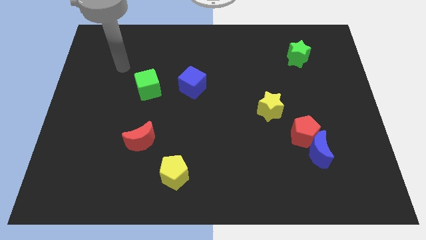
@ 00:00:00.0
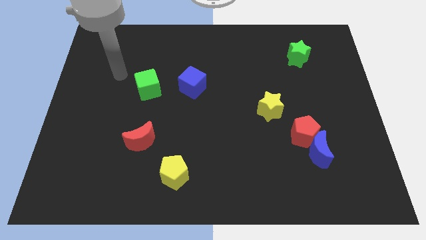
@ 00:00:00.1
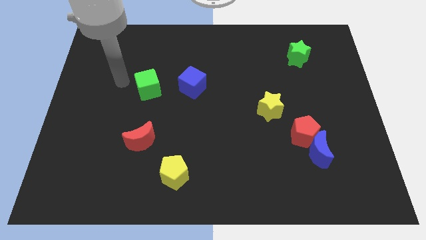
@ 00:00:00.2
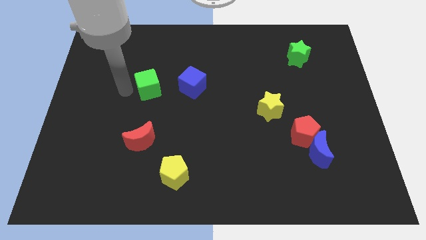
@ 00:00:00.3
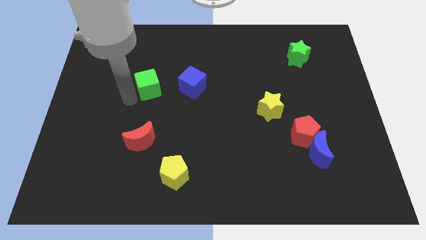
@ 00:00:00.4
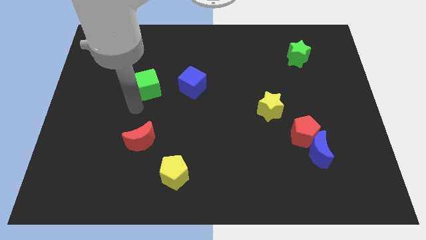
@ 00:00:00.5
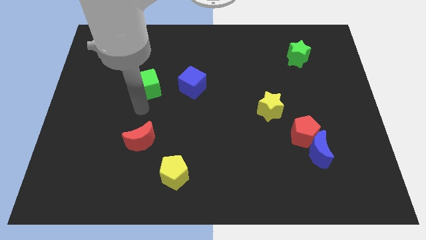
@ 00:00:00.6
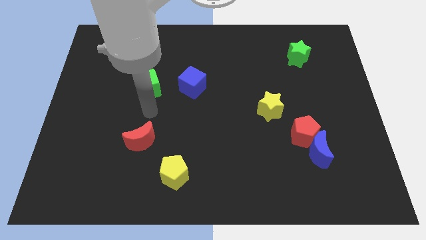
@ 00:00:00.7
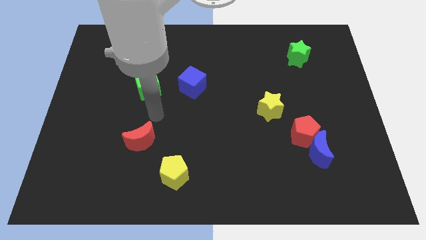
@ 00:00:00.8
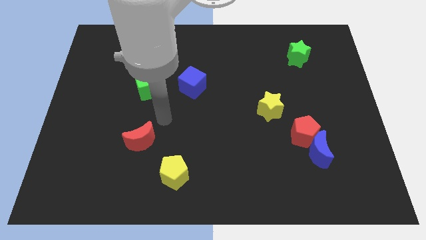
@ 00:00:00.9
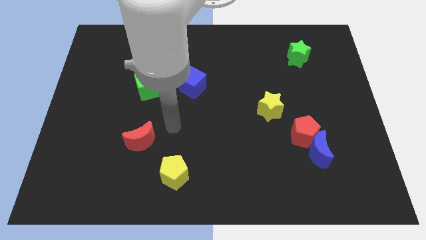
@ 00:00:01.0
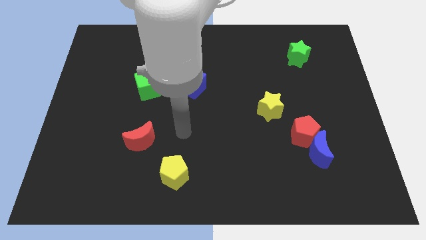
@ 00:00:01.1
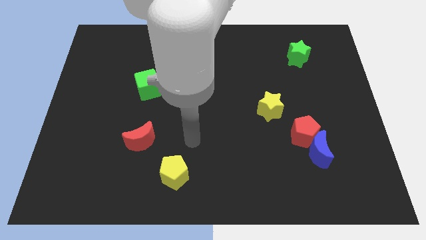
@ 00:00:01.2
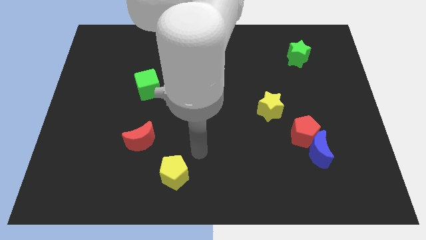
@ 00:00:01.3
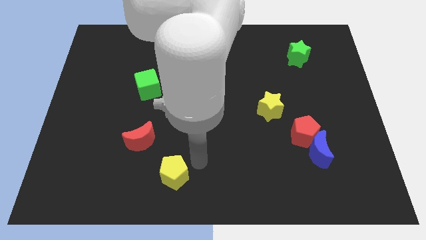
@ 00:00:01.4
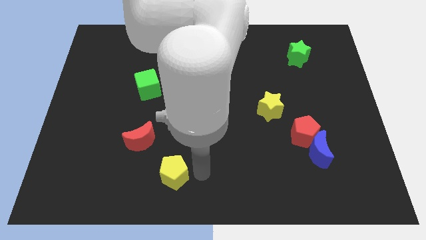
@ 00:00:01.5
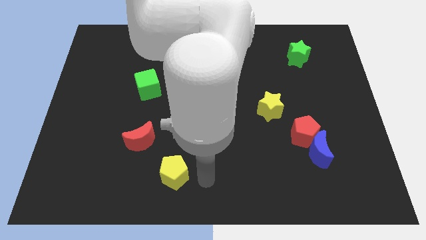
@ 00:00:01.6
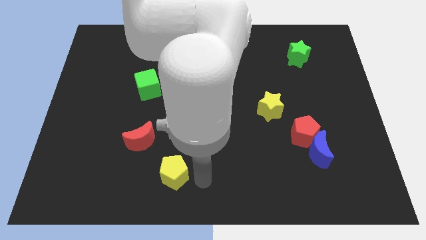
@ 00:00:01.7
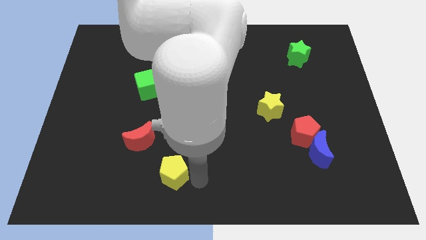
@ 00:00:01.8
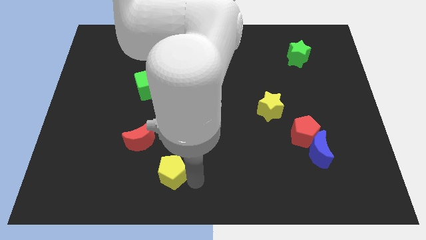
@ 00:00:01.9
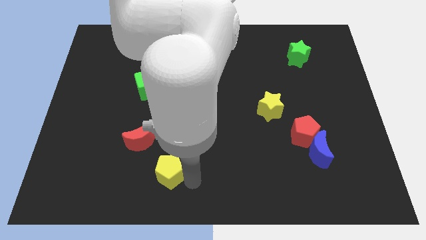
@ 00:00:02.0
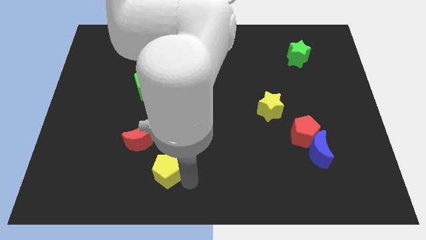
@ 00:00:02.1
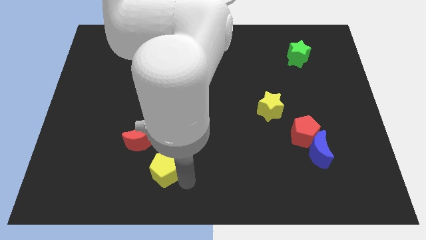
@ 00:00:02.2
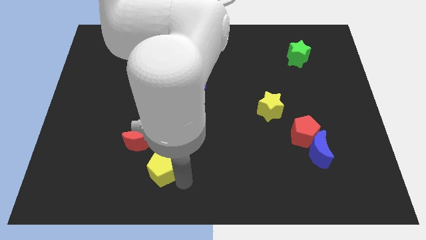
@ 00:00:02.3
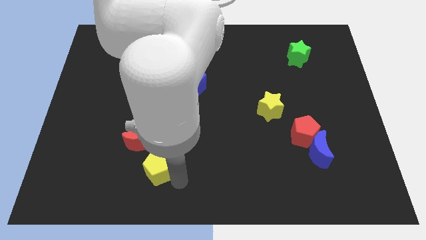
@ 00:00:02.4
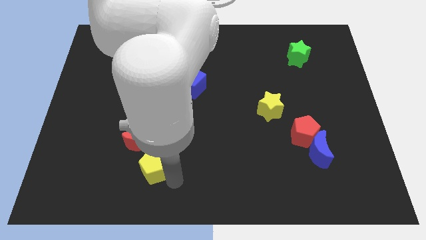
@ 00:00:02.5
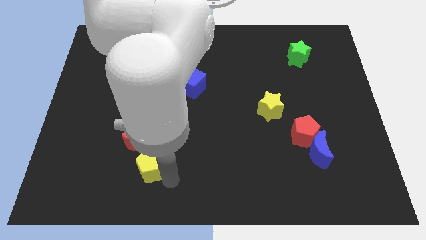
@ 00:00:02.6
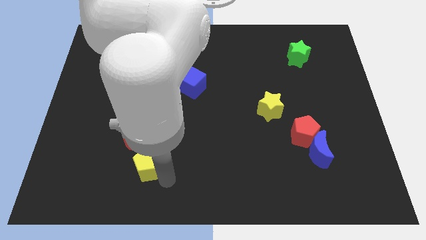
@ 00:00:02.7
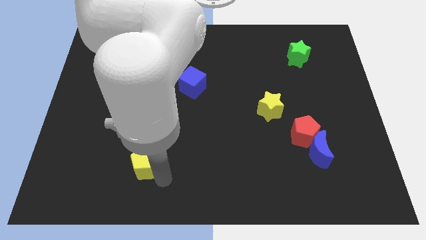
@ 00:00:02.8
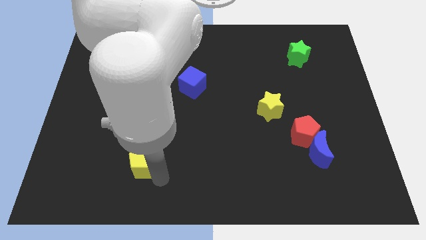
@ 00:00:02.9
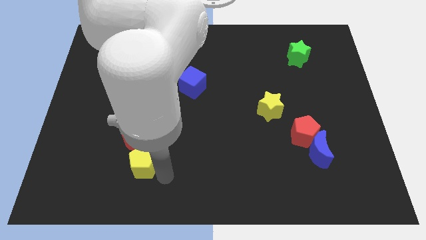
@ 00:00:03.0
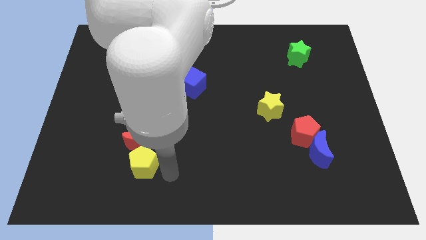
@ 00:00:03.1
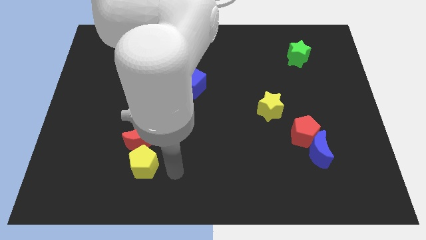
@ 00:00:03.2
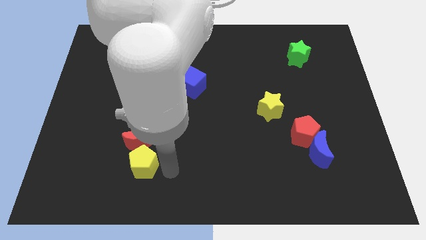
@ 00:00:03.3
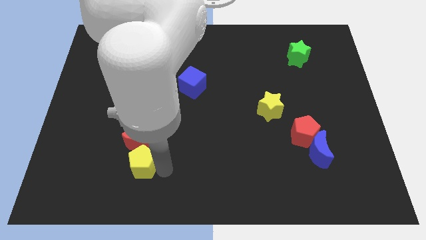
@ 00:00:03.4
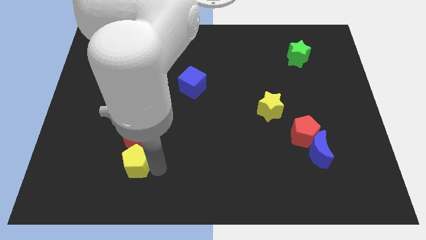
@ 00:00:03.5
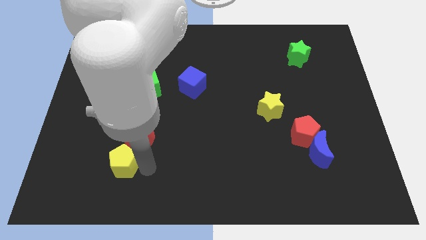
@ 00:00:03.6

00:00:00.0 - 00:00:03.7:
move the yellow pentagon upwards and then left a bit

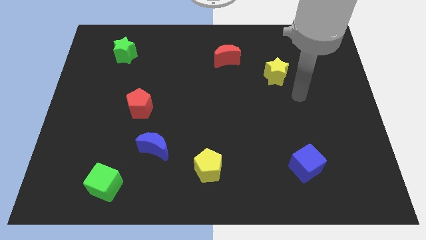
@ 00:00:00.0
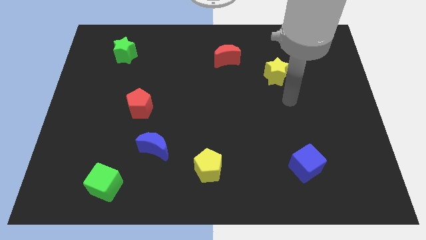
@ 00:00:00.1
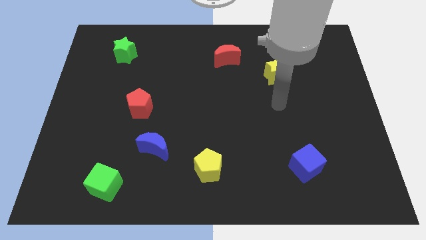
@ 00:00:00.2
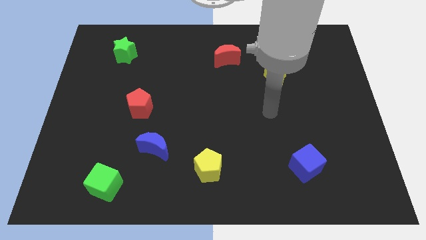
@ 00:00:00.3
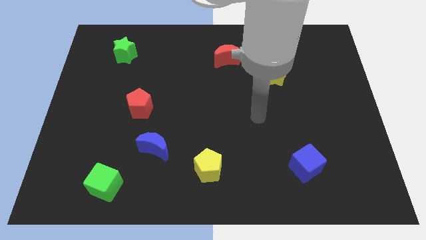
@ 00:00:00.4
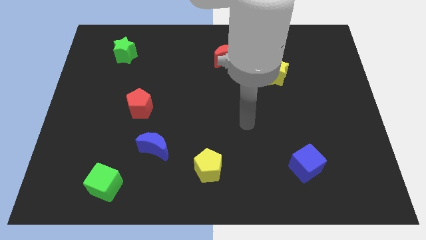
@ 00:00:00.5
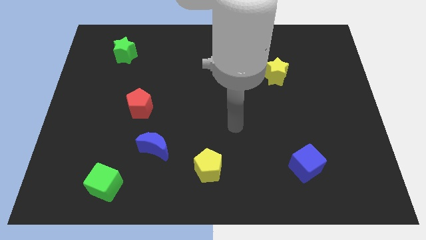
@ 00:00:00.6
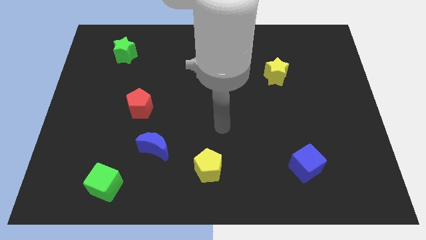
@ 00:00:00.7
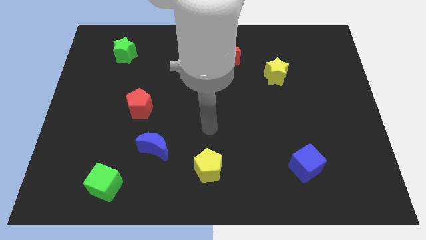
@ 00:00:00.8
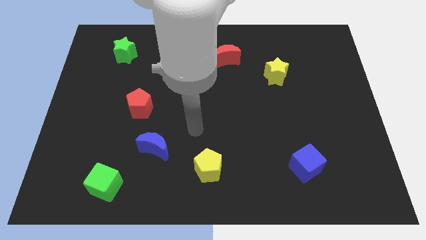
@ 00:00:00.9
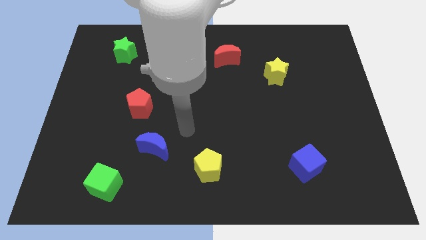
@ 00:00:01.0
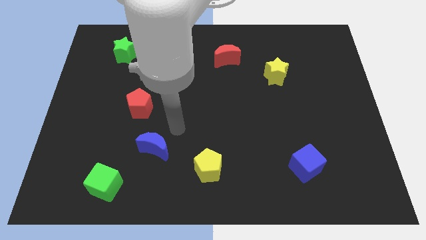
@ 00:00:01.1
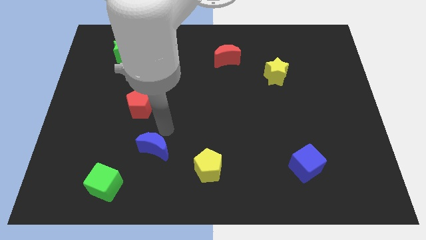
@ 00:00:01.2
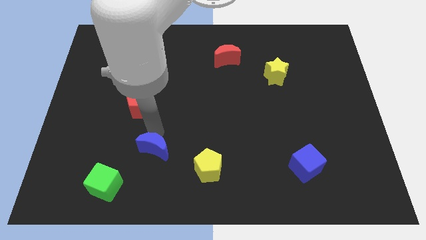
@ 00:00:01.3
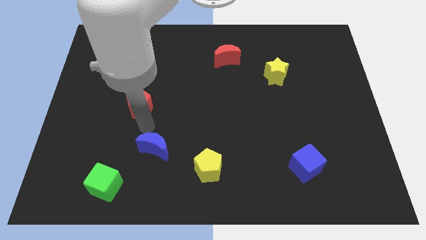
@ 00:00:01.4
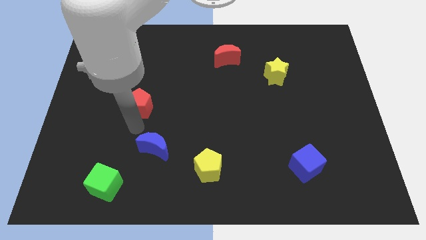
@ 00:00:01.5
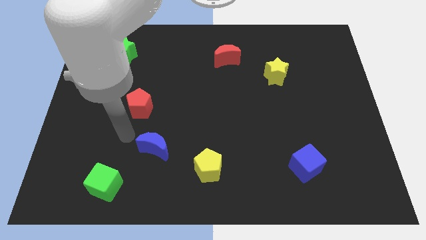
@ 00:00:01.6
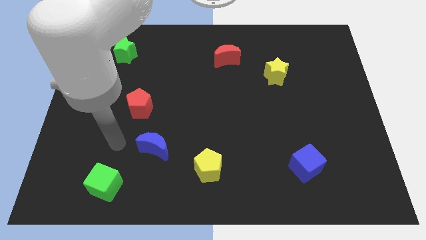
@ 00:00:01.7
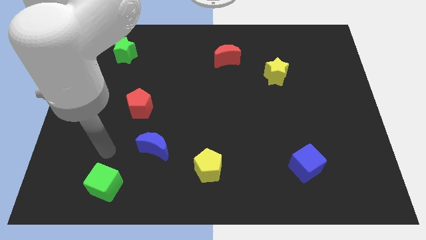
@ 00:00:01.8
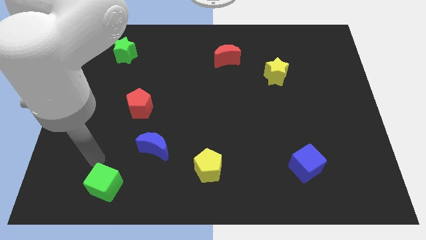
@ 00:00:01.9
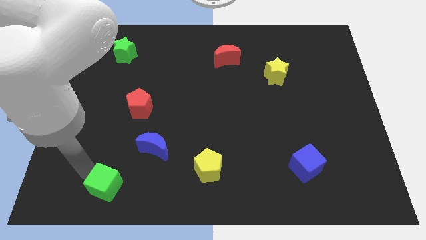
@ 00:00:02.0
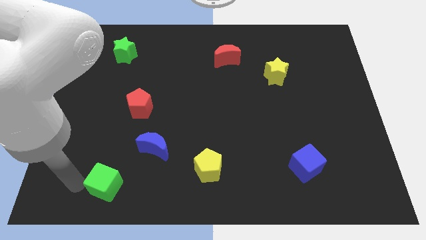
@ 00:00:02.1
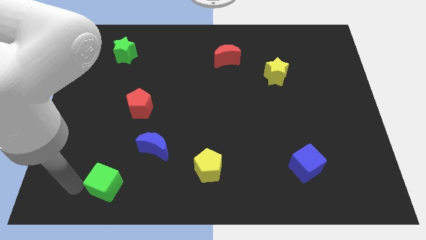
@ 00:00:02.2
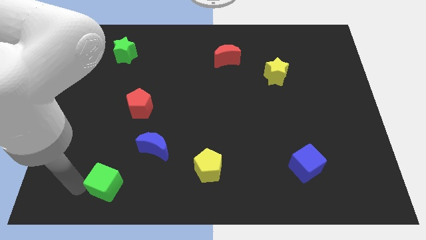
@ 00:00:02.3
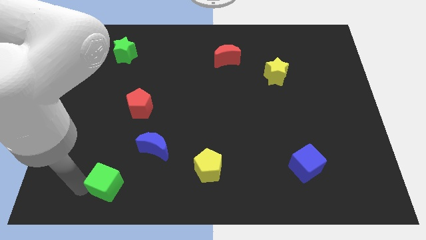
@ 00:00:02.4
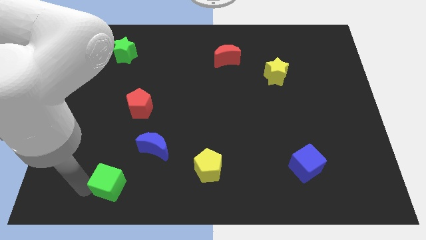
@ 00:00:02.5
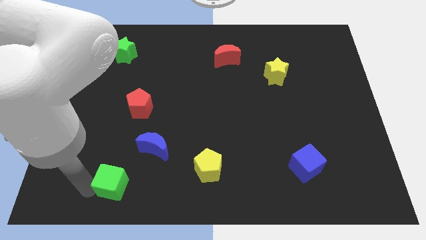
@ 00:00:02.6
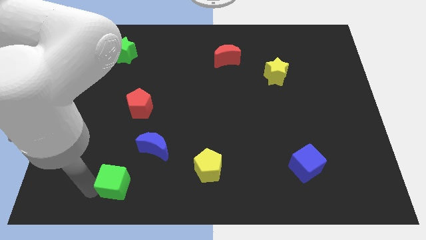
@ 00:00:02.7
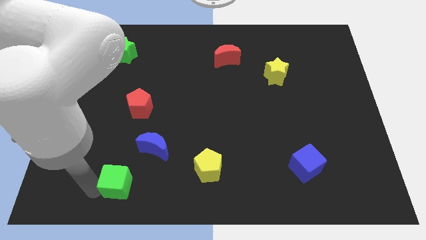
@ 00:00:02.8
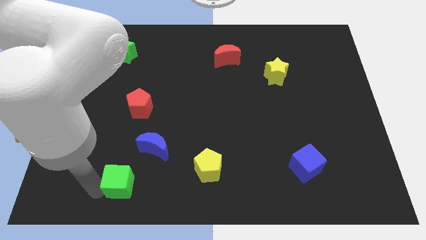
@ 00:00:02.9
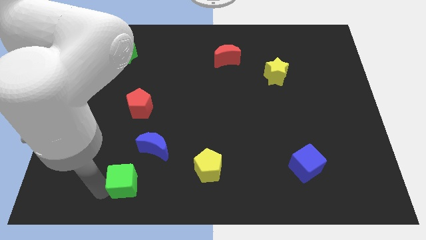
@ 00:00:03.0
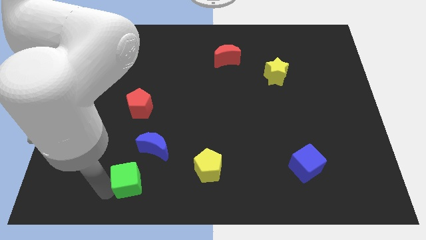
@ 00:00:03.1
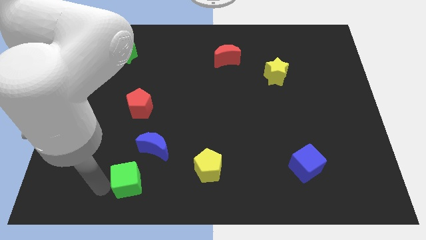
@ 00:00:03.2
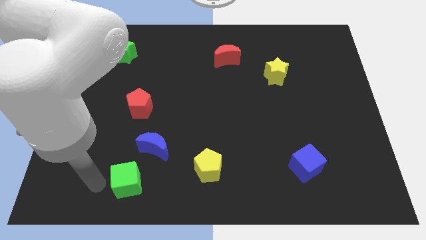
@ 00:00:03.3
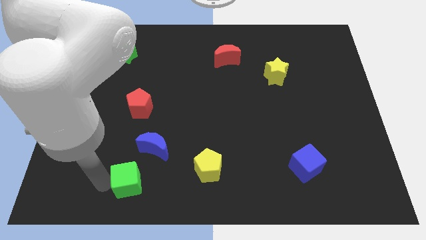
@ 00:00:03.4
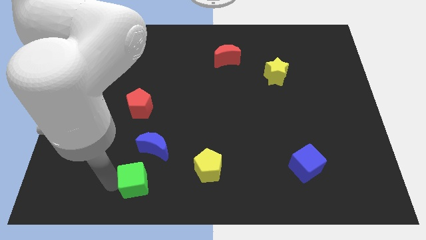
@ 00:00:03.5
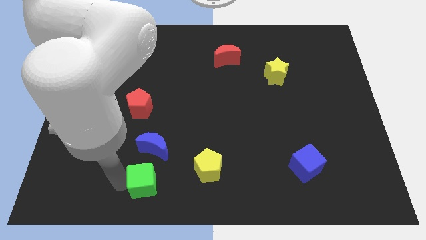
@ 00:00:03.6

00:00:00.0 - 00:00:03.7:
slide the green cube right somewhat

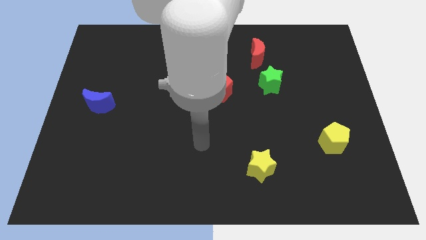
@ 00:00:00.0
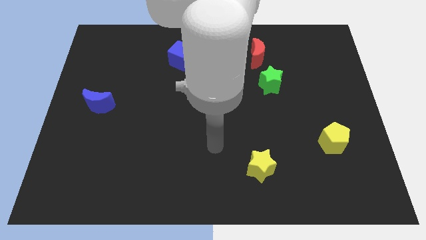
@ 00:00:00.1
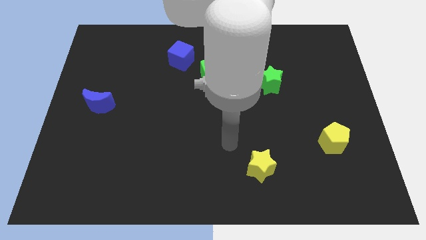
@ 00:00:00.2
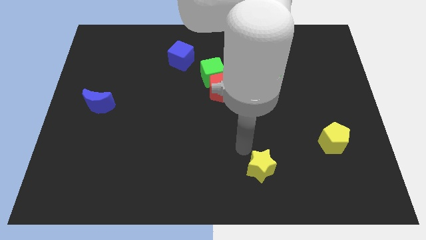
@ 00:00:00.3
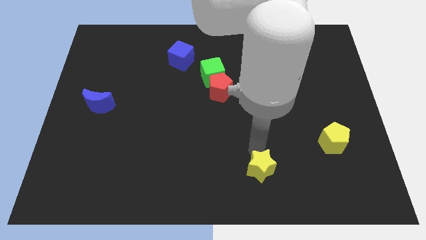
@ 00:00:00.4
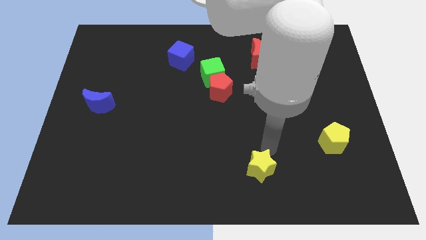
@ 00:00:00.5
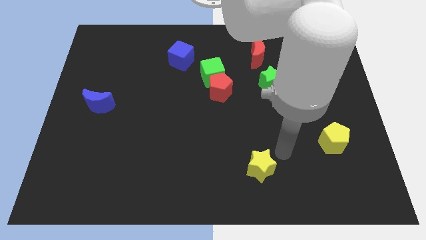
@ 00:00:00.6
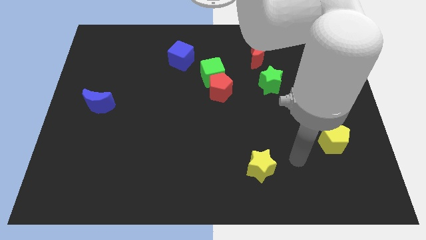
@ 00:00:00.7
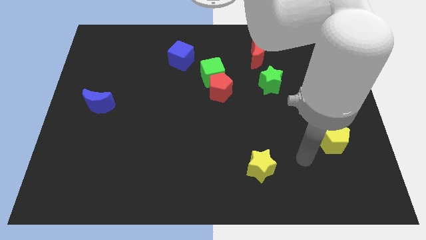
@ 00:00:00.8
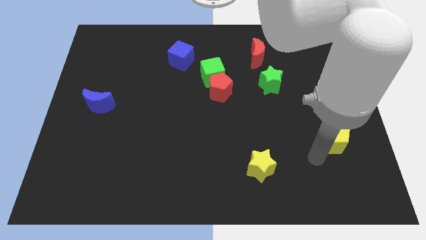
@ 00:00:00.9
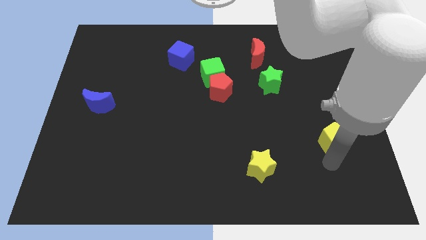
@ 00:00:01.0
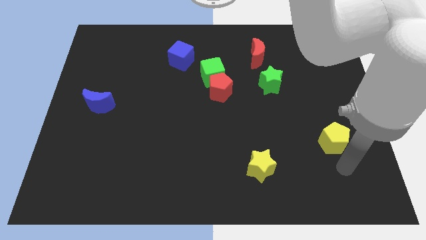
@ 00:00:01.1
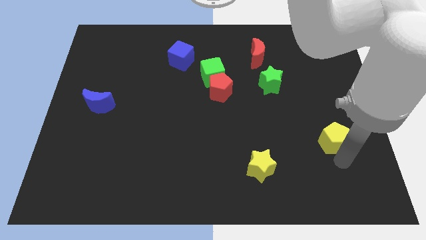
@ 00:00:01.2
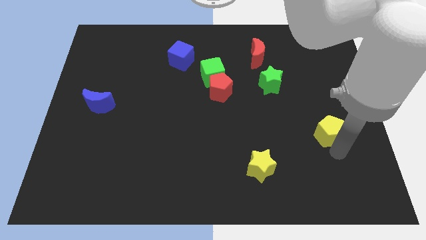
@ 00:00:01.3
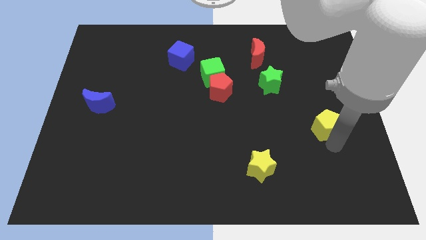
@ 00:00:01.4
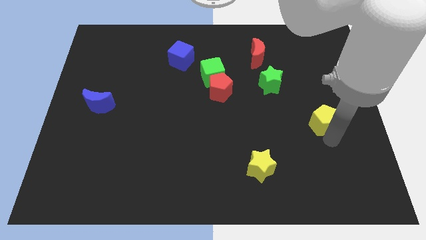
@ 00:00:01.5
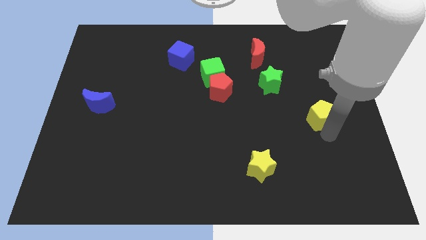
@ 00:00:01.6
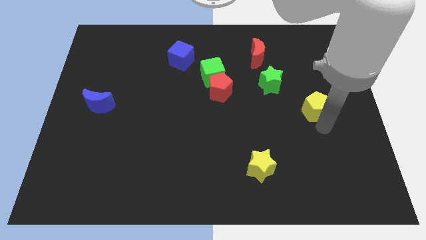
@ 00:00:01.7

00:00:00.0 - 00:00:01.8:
slide the yellow pentagon a little bit up
